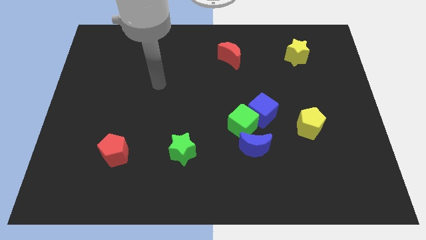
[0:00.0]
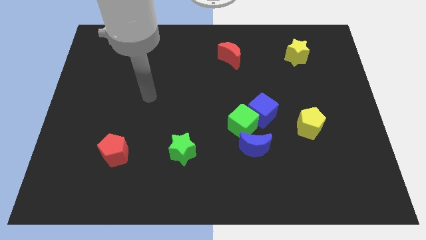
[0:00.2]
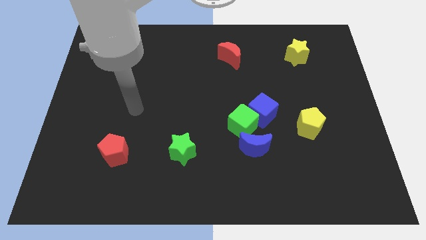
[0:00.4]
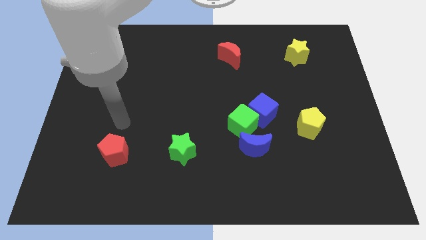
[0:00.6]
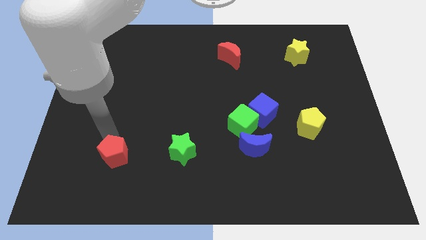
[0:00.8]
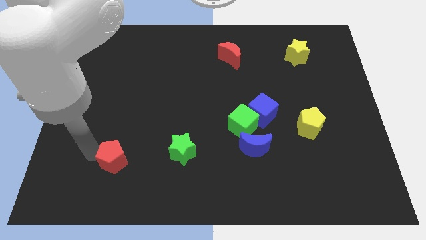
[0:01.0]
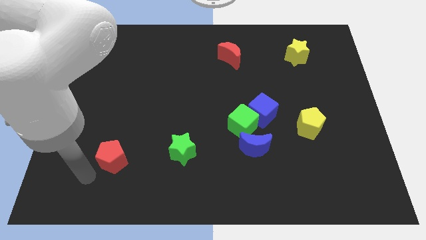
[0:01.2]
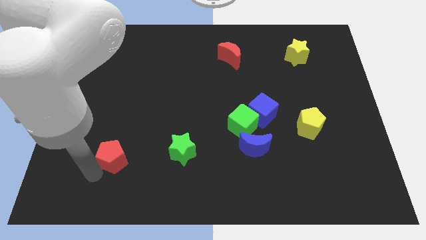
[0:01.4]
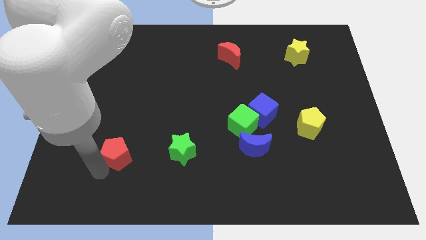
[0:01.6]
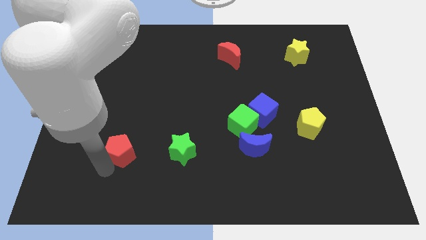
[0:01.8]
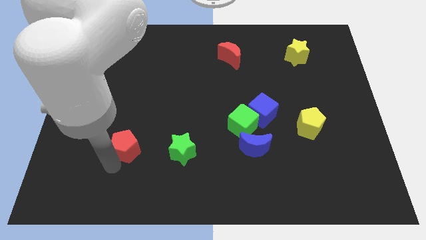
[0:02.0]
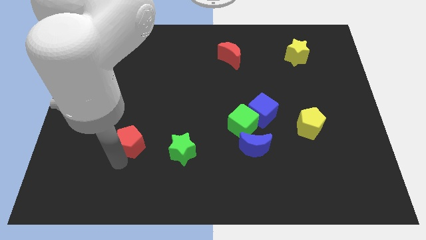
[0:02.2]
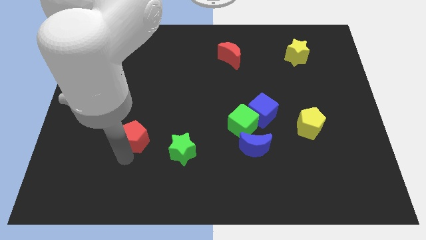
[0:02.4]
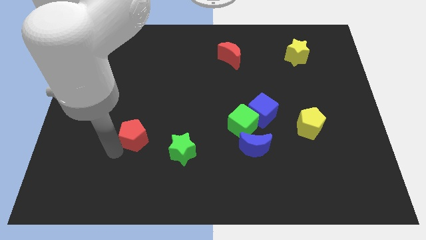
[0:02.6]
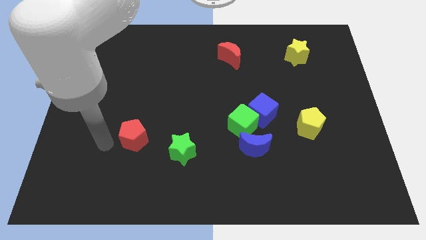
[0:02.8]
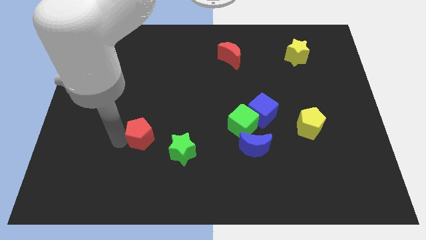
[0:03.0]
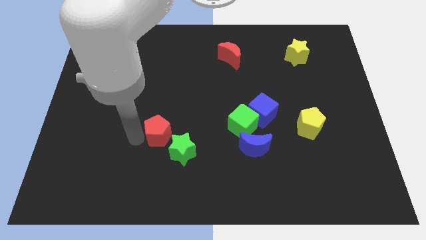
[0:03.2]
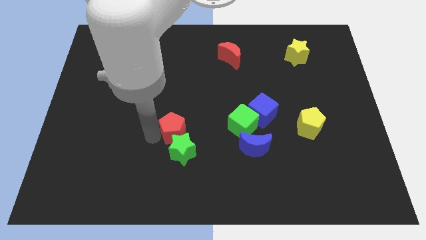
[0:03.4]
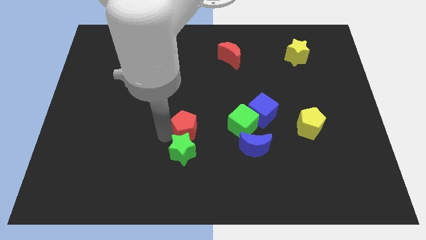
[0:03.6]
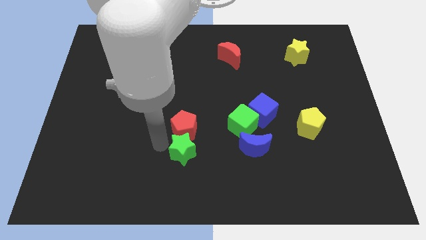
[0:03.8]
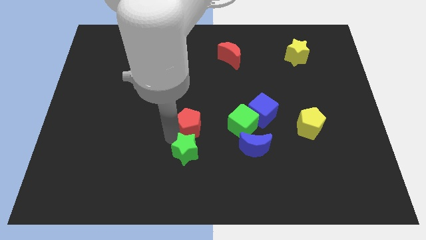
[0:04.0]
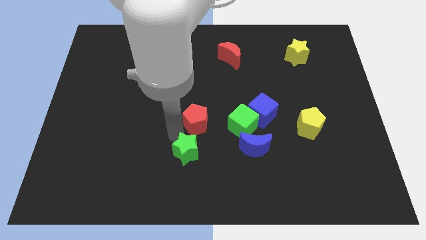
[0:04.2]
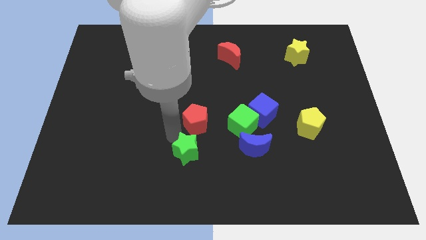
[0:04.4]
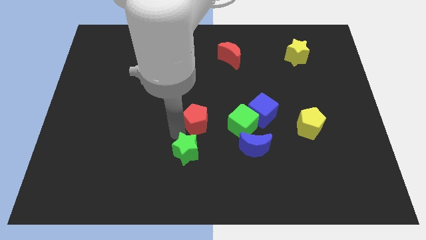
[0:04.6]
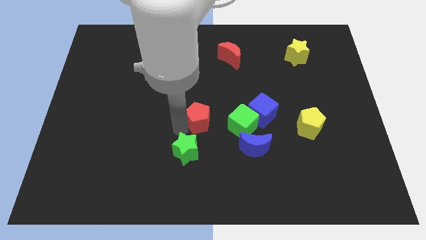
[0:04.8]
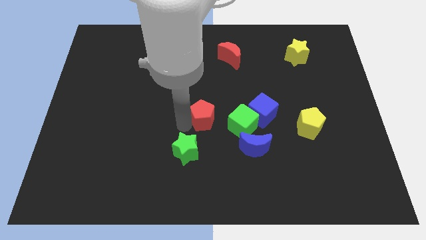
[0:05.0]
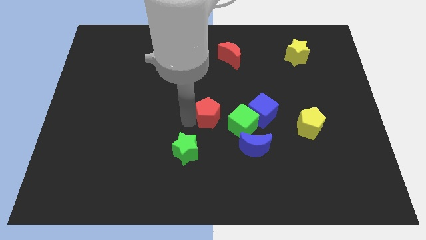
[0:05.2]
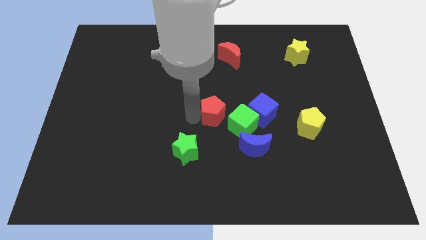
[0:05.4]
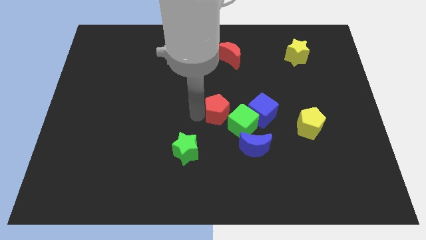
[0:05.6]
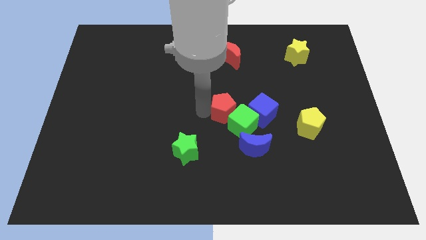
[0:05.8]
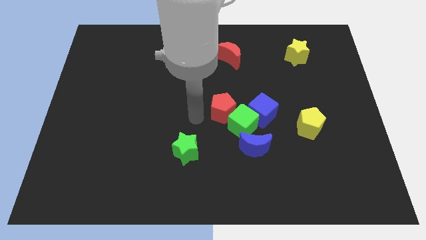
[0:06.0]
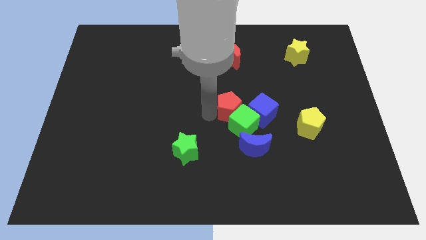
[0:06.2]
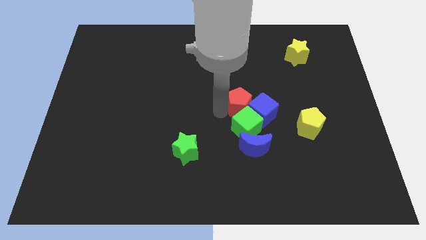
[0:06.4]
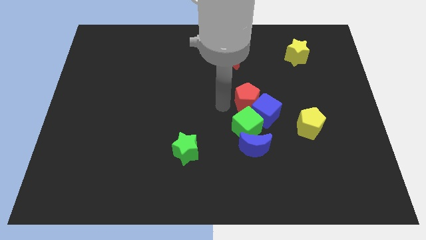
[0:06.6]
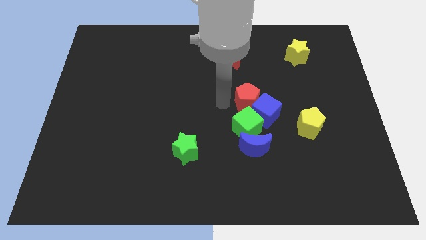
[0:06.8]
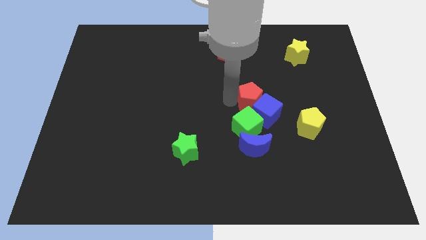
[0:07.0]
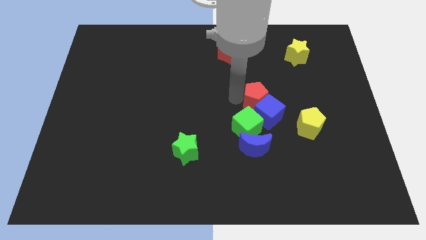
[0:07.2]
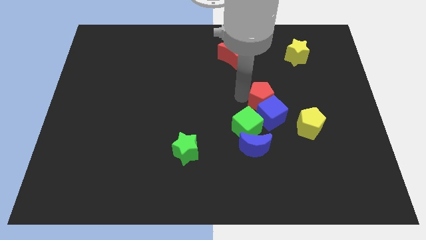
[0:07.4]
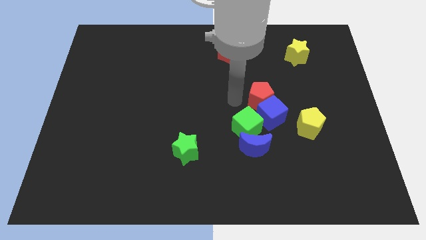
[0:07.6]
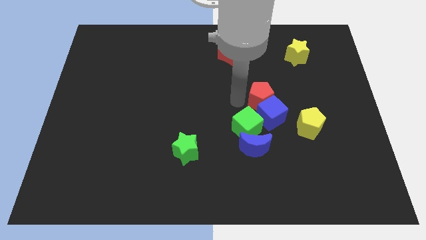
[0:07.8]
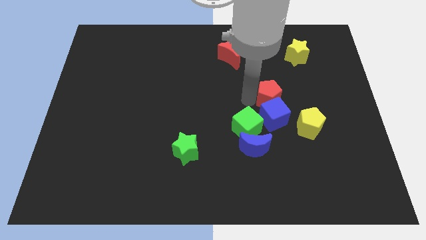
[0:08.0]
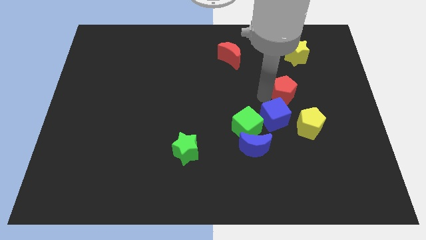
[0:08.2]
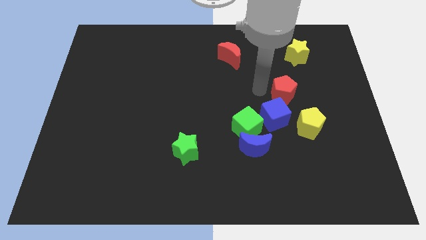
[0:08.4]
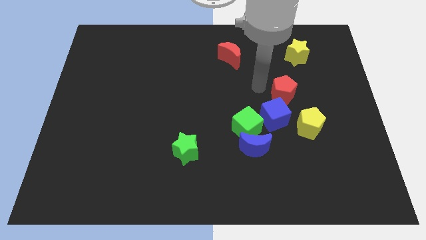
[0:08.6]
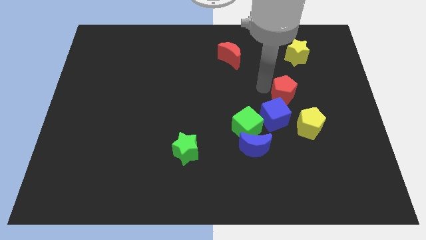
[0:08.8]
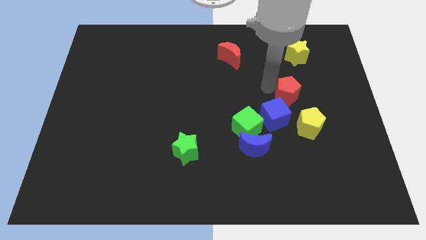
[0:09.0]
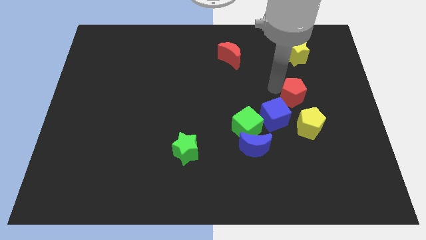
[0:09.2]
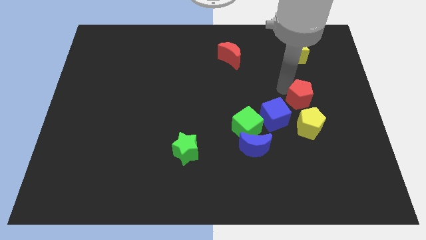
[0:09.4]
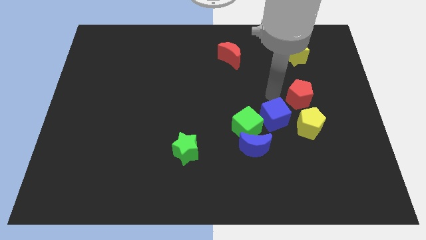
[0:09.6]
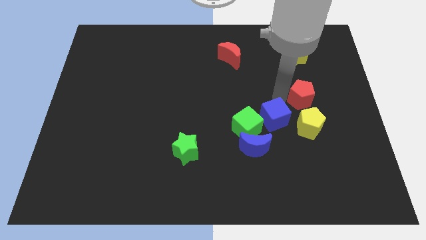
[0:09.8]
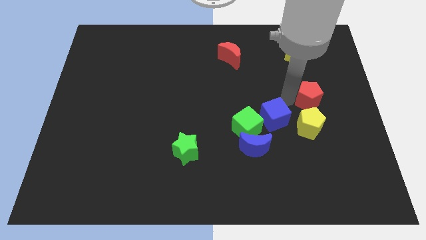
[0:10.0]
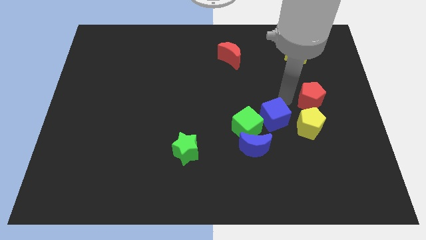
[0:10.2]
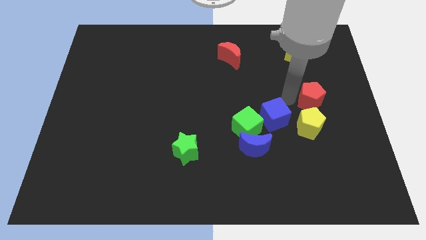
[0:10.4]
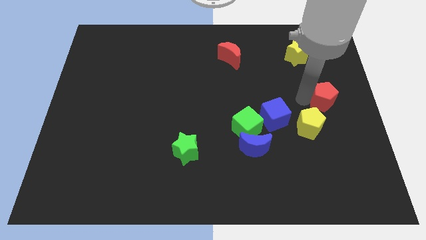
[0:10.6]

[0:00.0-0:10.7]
put the red pentagon to the right side

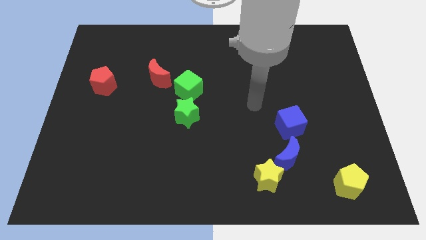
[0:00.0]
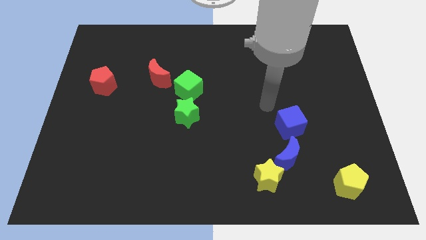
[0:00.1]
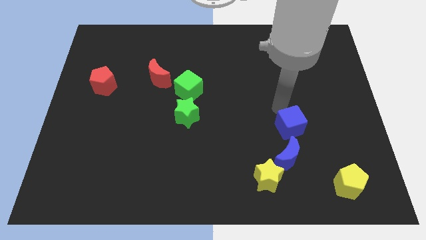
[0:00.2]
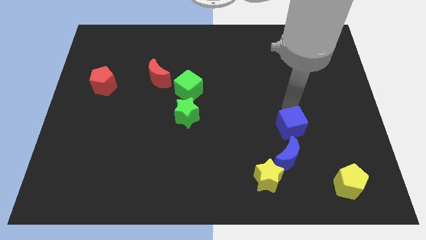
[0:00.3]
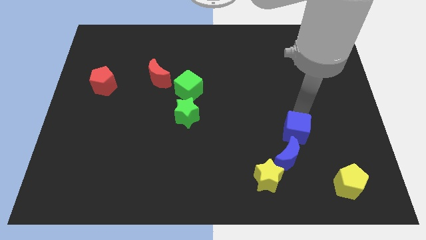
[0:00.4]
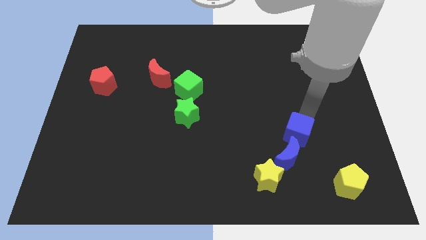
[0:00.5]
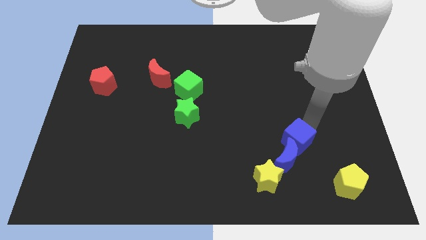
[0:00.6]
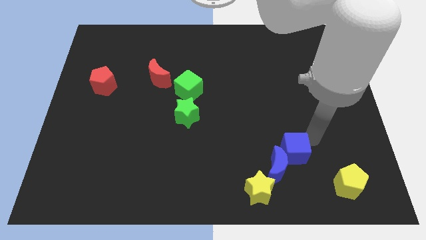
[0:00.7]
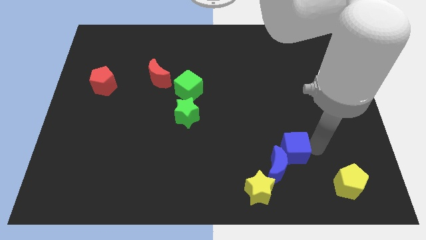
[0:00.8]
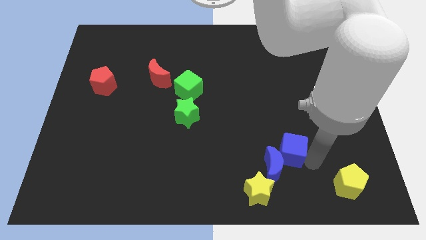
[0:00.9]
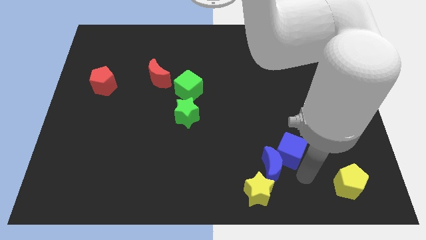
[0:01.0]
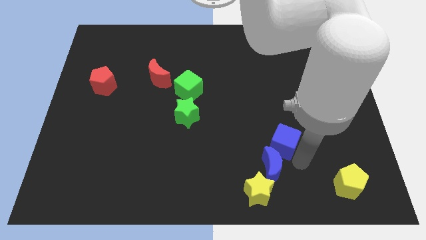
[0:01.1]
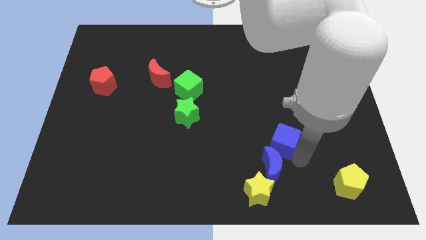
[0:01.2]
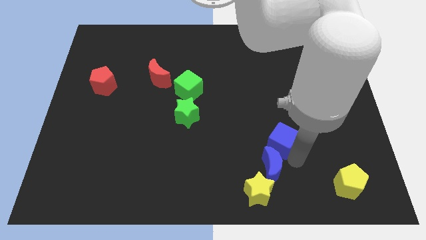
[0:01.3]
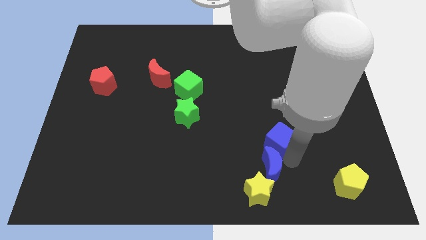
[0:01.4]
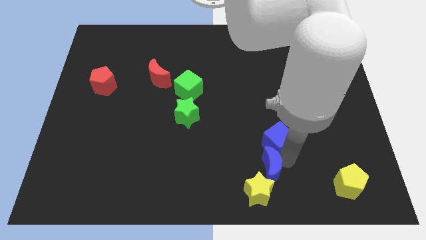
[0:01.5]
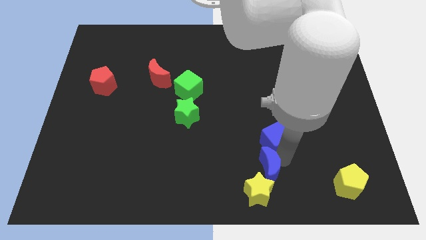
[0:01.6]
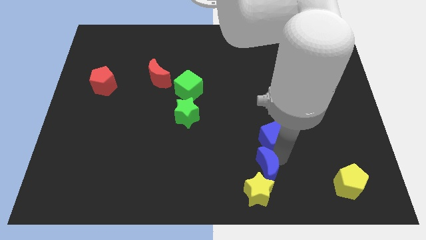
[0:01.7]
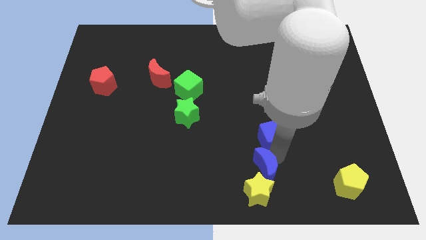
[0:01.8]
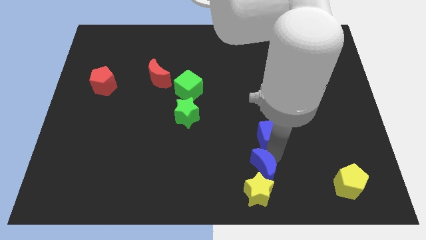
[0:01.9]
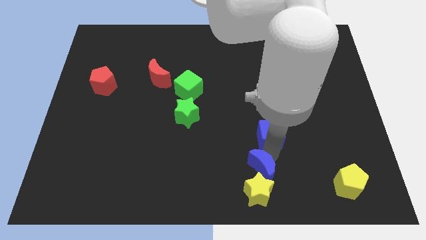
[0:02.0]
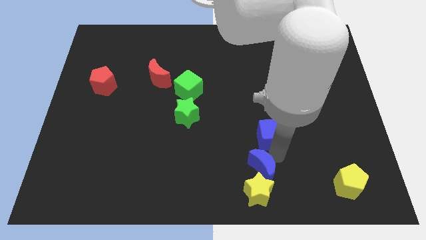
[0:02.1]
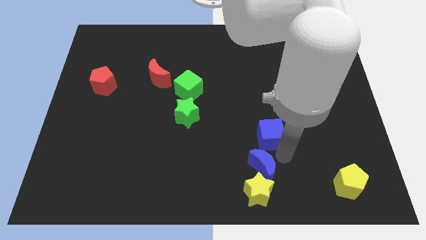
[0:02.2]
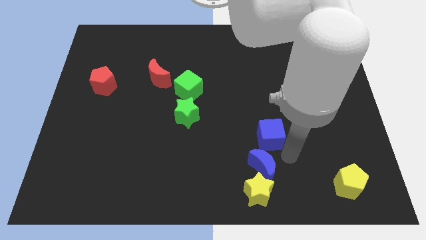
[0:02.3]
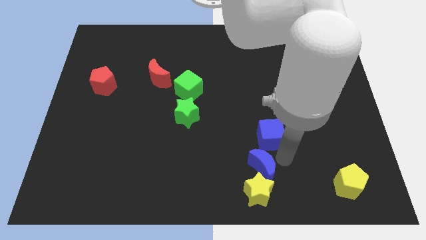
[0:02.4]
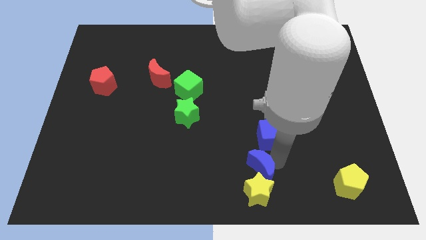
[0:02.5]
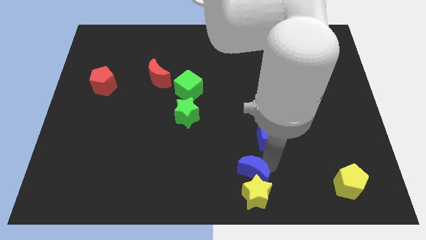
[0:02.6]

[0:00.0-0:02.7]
push the blue moon to the bottom side
